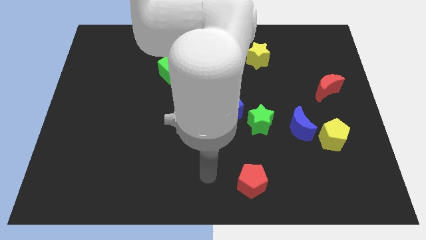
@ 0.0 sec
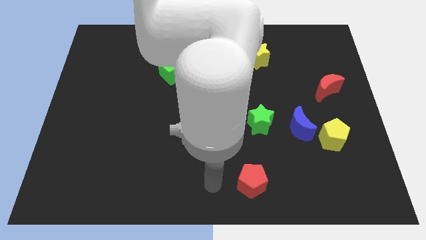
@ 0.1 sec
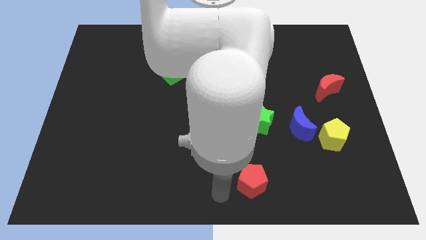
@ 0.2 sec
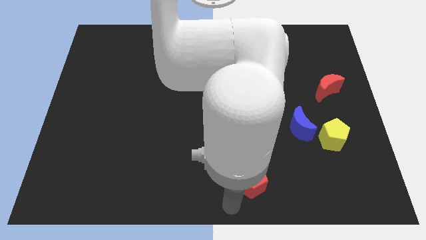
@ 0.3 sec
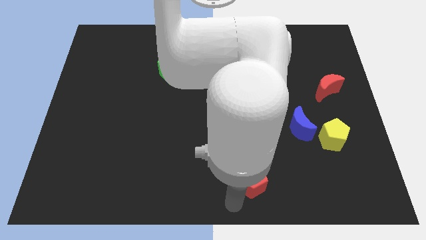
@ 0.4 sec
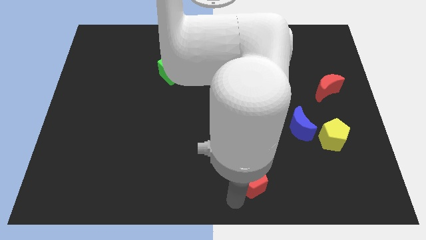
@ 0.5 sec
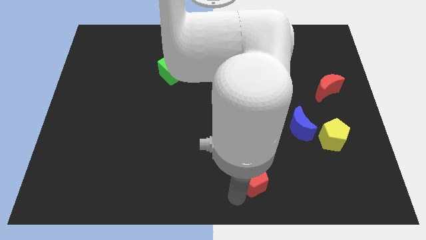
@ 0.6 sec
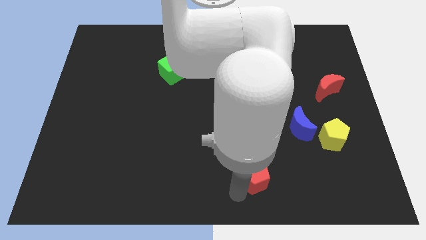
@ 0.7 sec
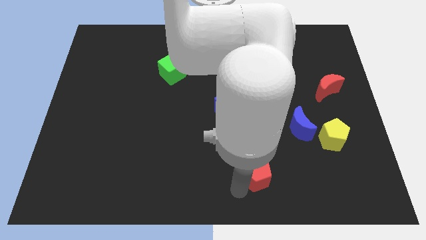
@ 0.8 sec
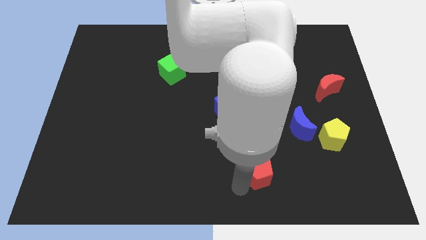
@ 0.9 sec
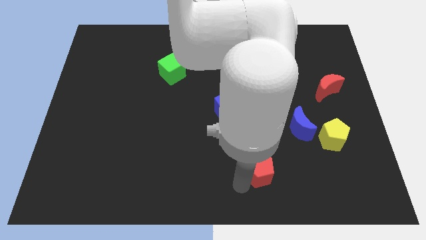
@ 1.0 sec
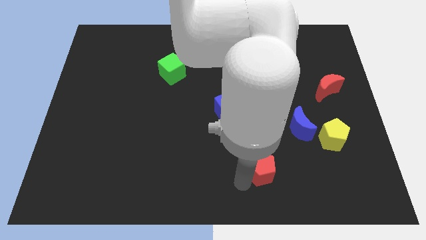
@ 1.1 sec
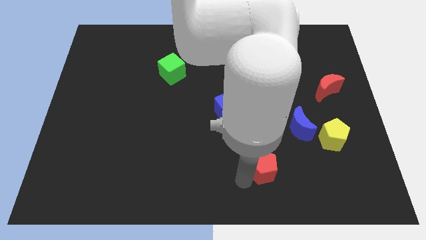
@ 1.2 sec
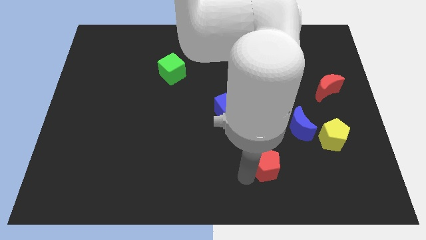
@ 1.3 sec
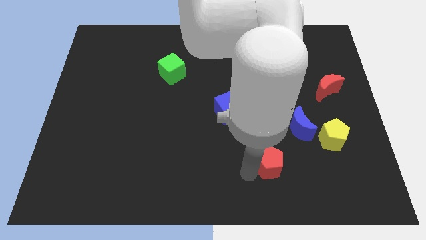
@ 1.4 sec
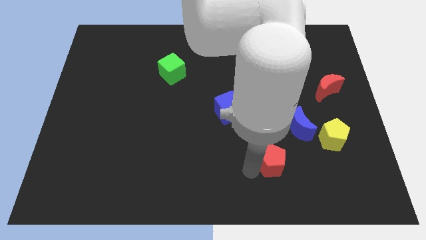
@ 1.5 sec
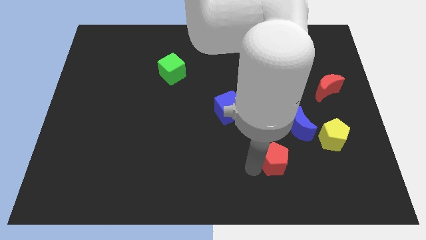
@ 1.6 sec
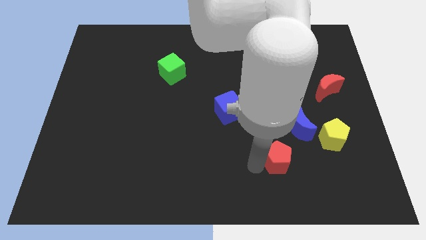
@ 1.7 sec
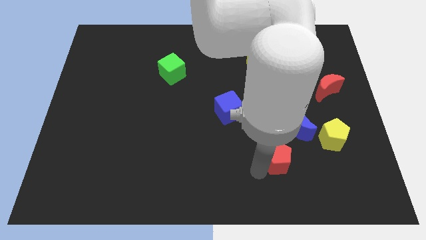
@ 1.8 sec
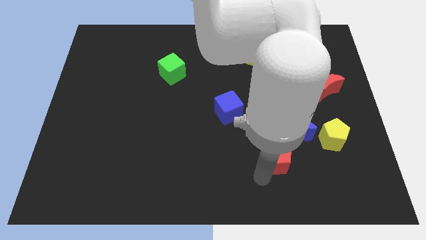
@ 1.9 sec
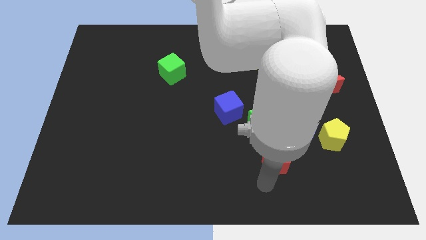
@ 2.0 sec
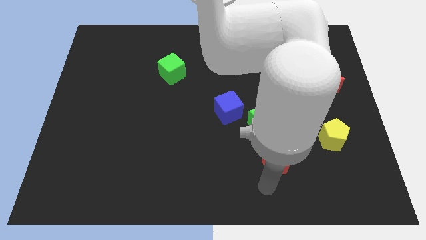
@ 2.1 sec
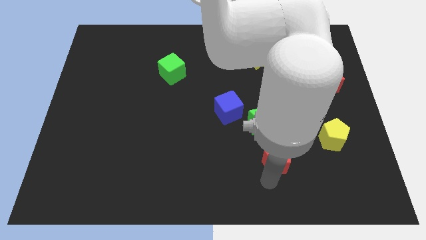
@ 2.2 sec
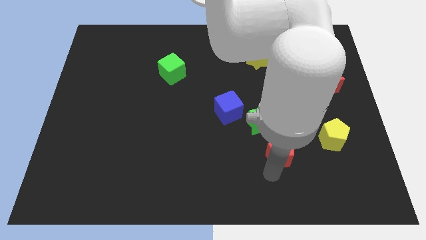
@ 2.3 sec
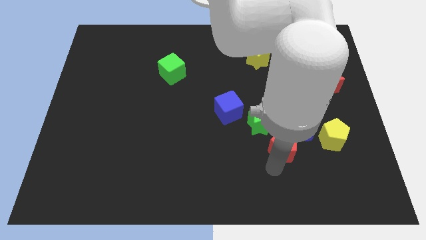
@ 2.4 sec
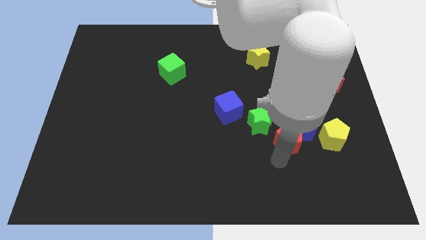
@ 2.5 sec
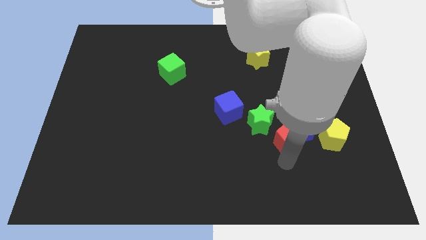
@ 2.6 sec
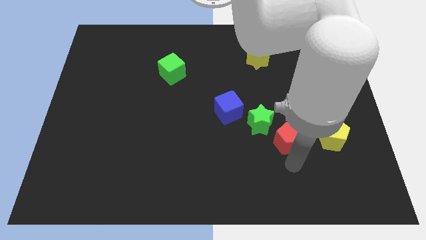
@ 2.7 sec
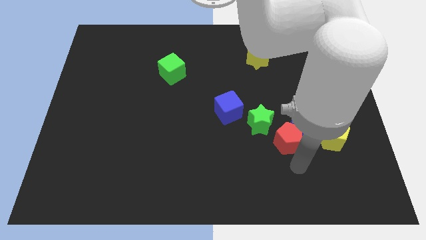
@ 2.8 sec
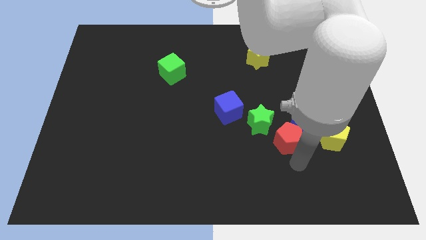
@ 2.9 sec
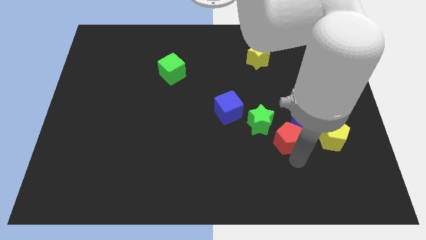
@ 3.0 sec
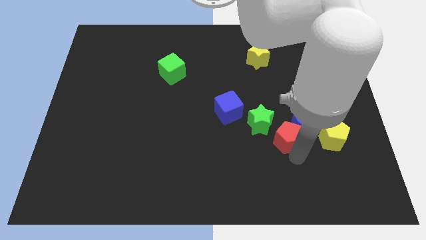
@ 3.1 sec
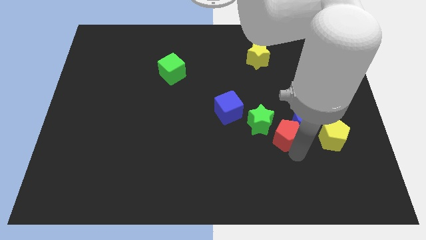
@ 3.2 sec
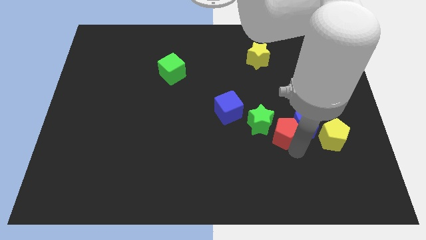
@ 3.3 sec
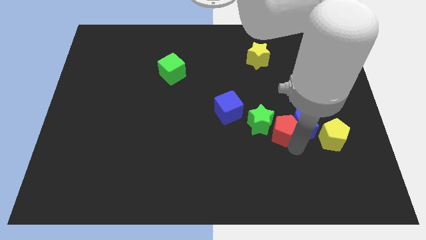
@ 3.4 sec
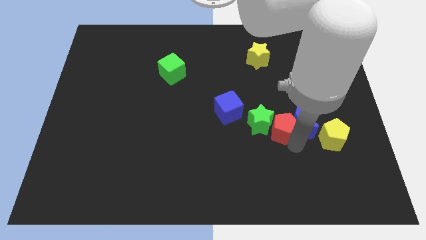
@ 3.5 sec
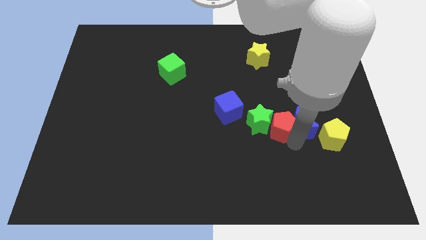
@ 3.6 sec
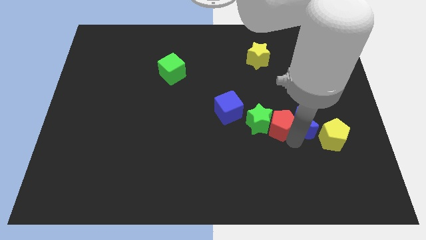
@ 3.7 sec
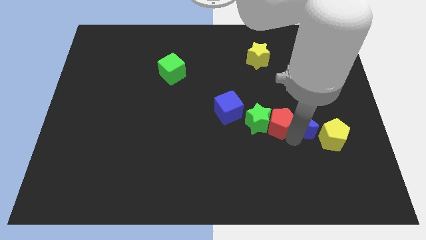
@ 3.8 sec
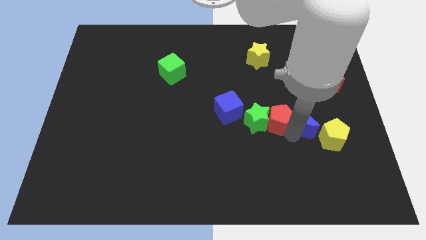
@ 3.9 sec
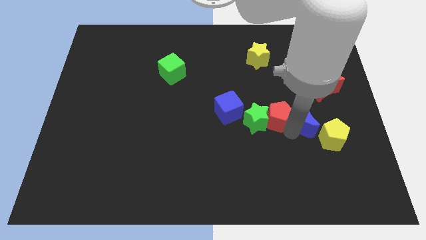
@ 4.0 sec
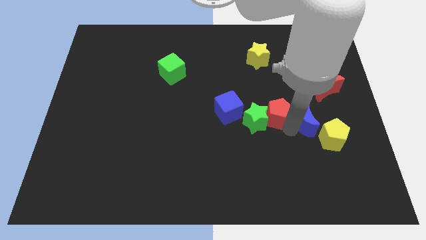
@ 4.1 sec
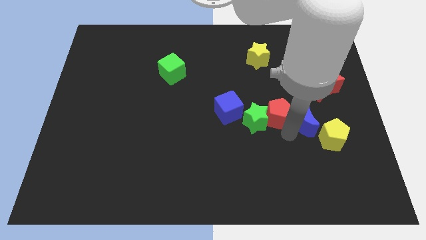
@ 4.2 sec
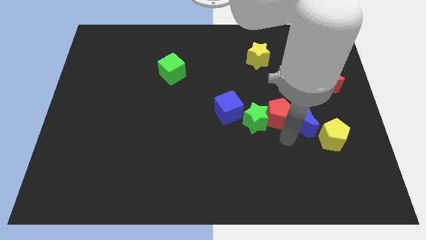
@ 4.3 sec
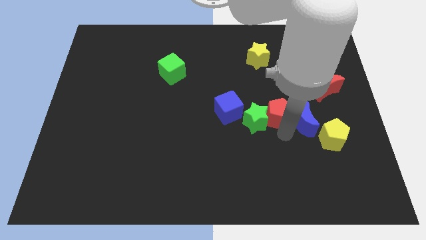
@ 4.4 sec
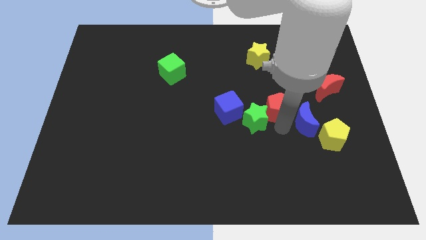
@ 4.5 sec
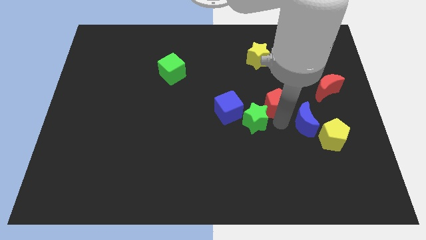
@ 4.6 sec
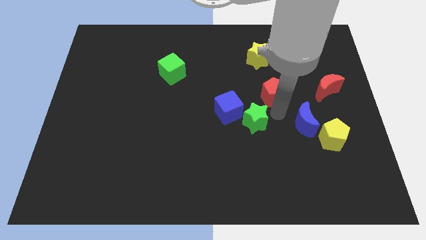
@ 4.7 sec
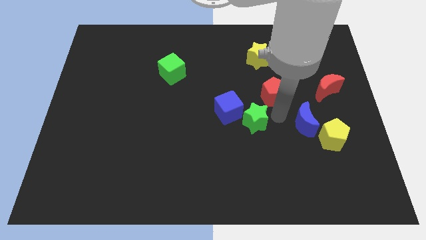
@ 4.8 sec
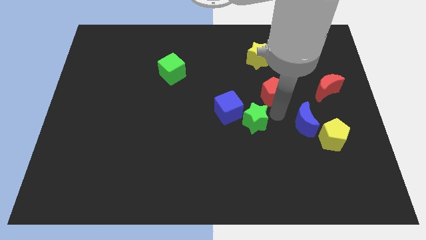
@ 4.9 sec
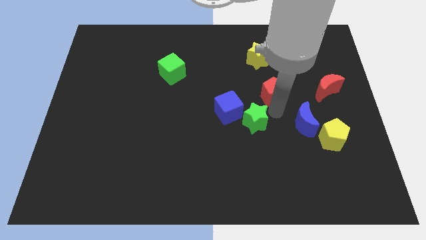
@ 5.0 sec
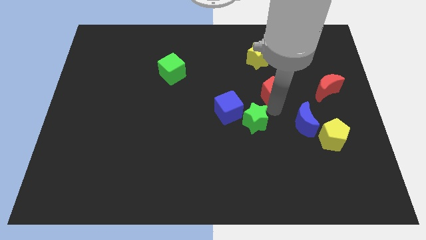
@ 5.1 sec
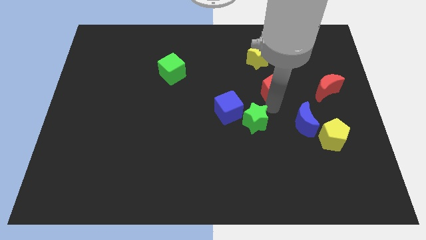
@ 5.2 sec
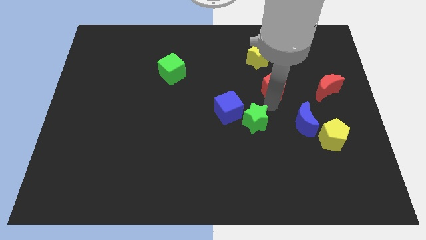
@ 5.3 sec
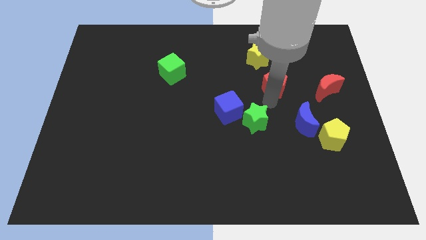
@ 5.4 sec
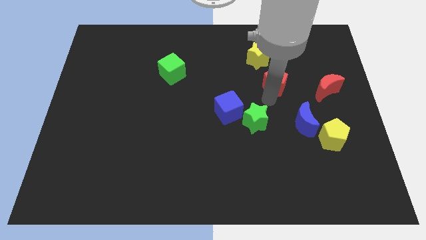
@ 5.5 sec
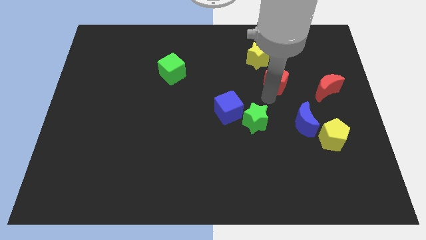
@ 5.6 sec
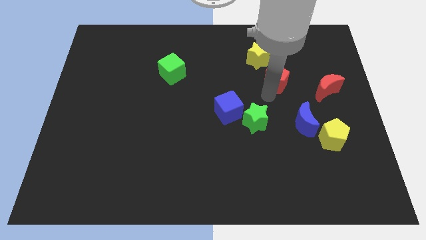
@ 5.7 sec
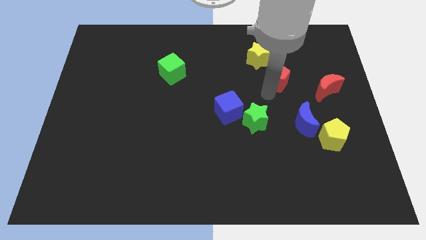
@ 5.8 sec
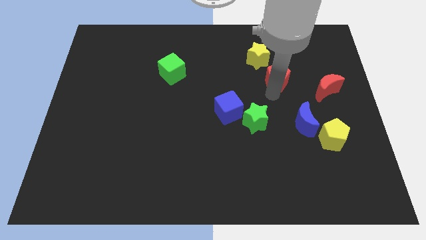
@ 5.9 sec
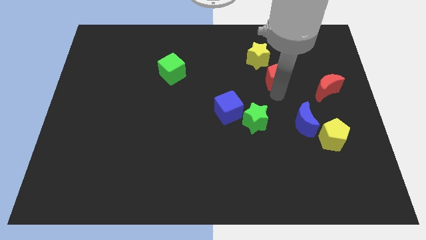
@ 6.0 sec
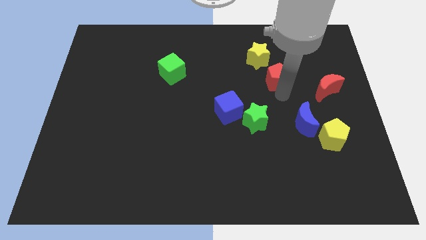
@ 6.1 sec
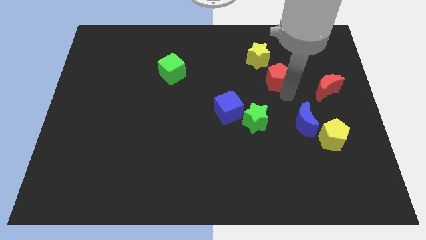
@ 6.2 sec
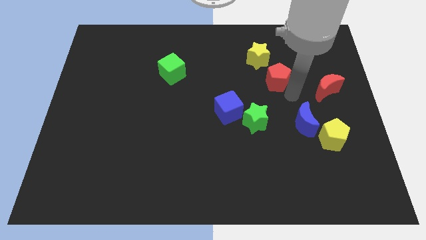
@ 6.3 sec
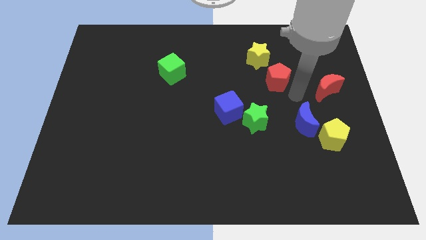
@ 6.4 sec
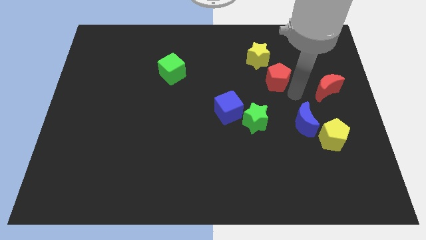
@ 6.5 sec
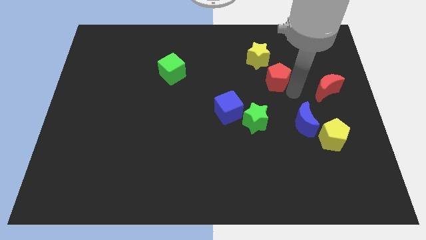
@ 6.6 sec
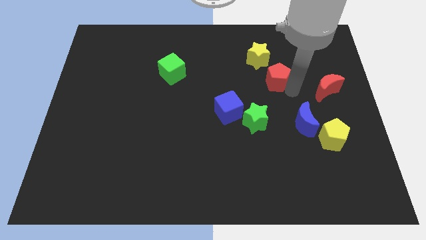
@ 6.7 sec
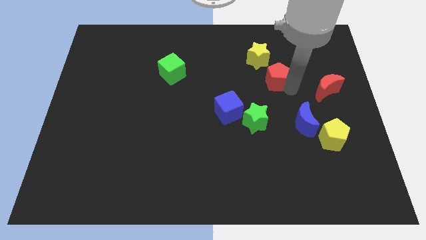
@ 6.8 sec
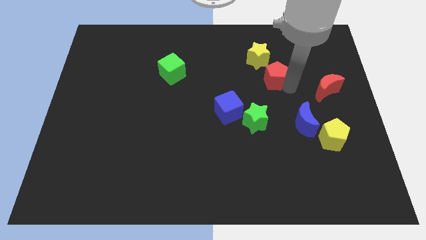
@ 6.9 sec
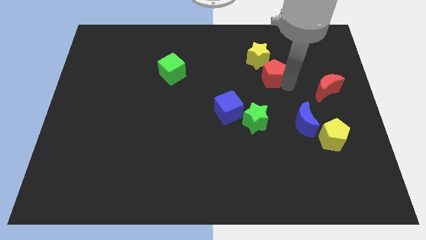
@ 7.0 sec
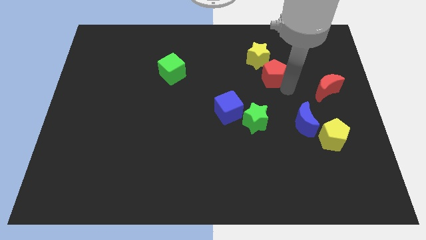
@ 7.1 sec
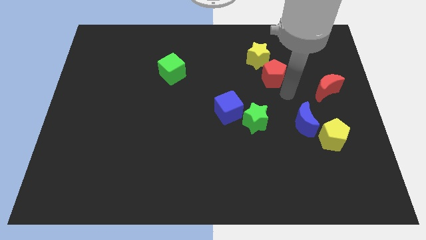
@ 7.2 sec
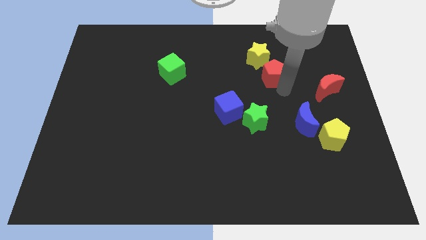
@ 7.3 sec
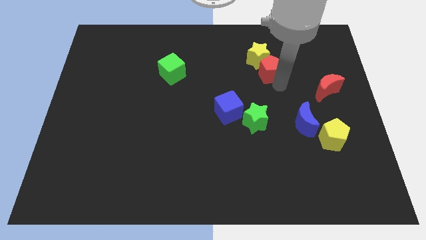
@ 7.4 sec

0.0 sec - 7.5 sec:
put the red pentagon close to the yellow star

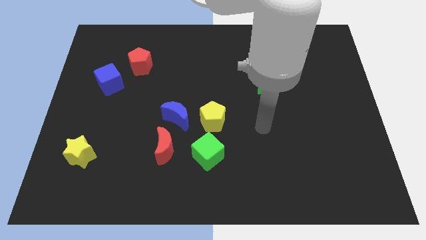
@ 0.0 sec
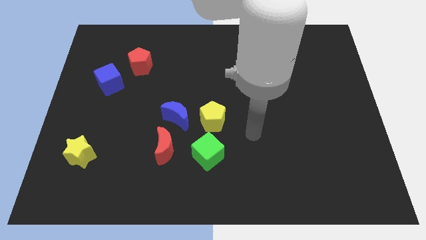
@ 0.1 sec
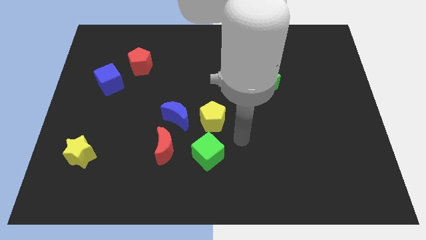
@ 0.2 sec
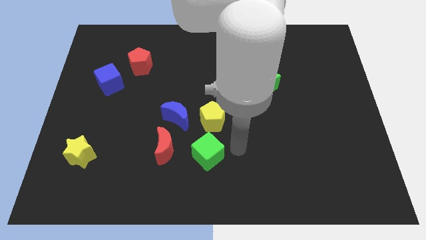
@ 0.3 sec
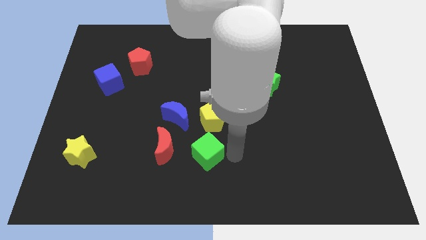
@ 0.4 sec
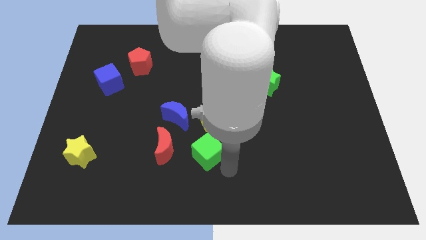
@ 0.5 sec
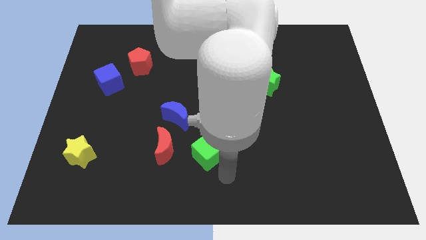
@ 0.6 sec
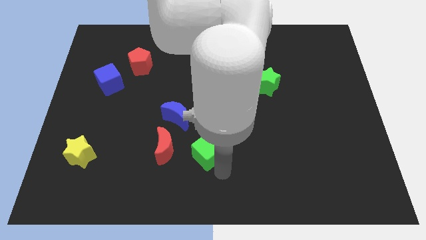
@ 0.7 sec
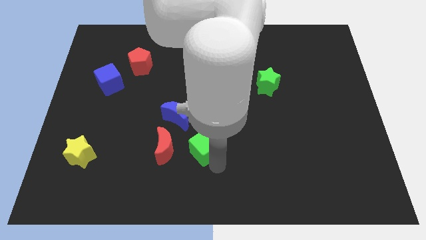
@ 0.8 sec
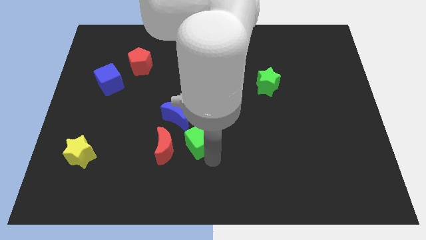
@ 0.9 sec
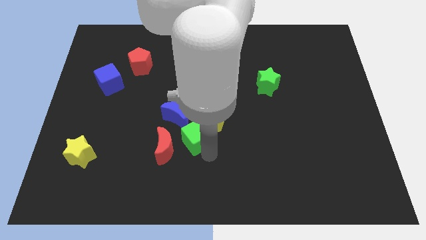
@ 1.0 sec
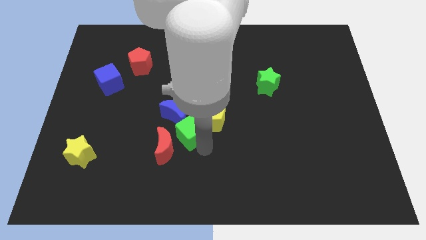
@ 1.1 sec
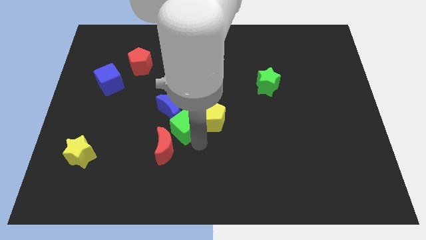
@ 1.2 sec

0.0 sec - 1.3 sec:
slide the green cube close to the blue moon
